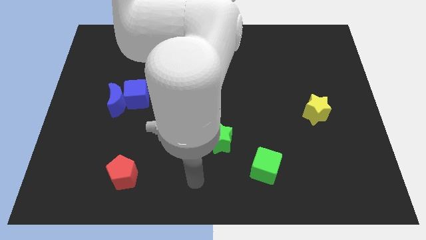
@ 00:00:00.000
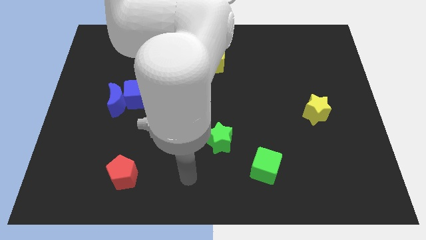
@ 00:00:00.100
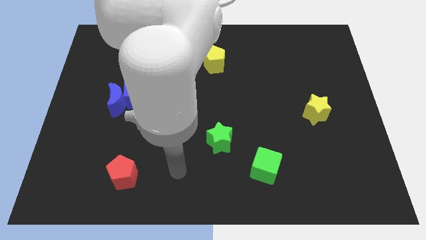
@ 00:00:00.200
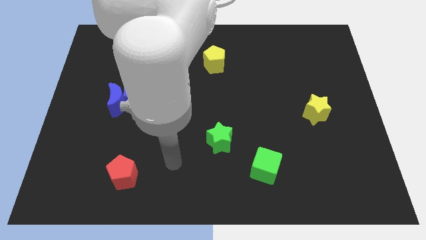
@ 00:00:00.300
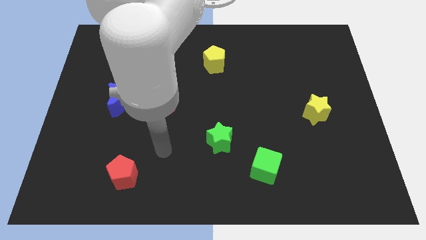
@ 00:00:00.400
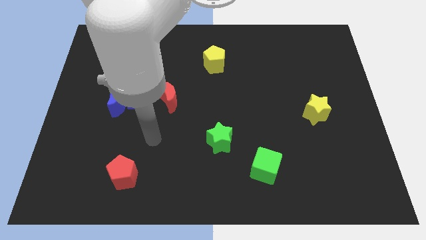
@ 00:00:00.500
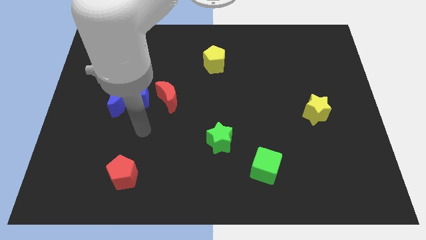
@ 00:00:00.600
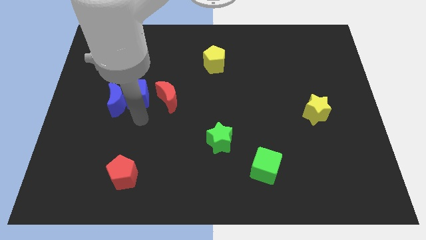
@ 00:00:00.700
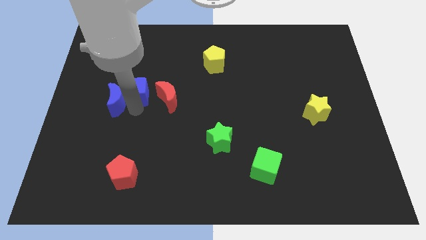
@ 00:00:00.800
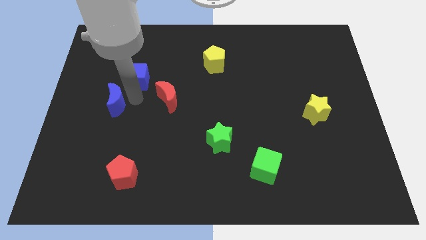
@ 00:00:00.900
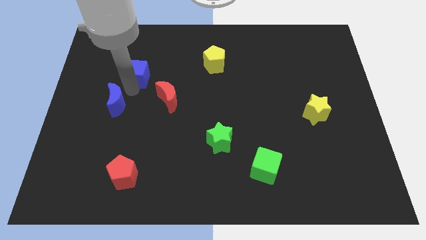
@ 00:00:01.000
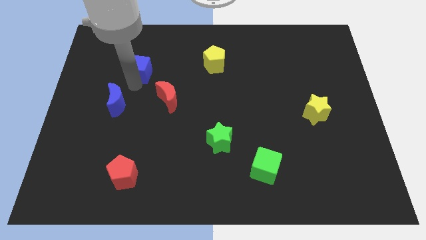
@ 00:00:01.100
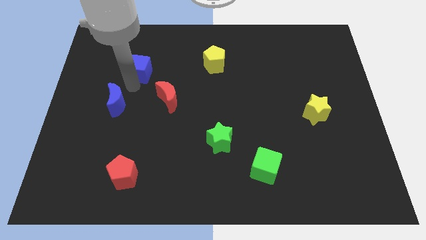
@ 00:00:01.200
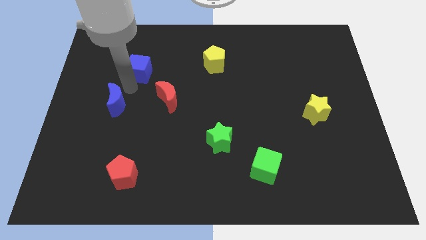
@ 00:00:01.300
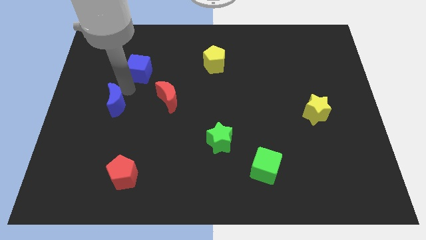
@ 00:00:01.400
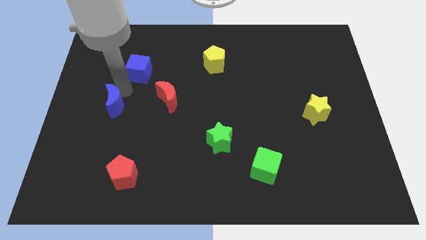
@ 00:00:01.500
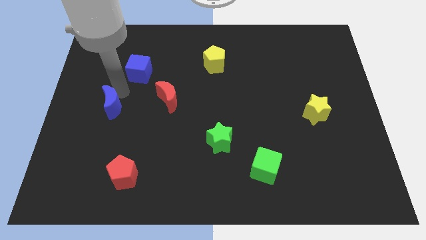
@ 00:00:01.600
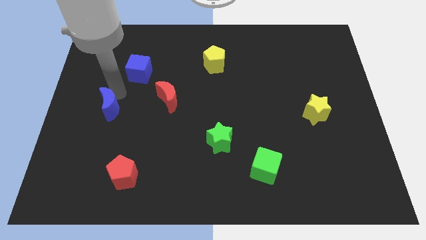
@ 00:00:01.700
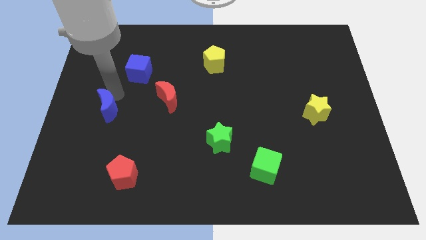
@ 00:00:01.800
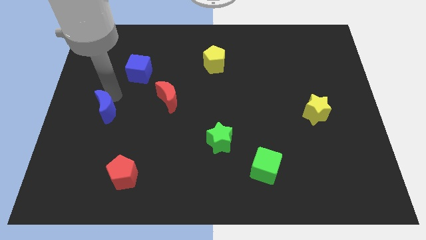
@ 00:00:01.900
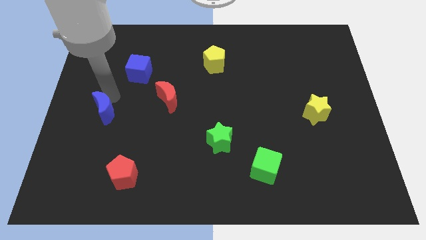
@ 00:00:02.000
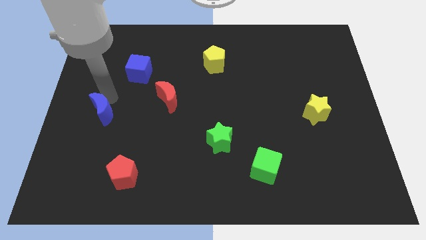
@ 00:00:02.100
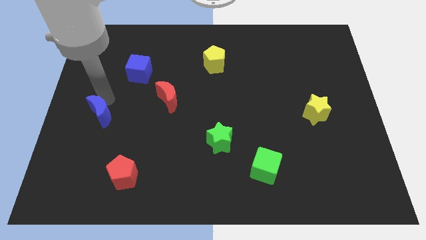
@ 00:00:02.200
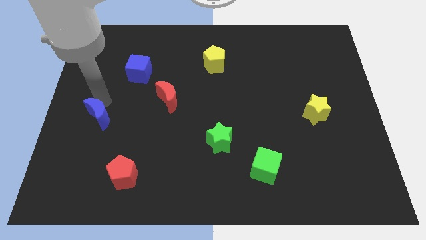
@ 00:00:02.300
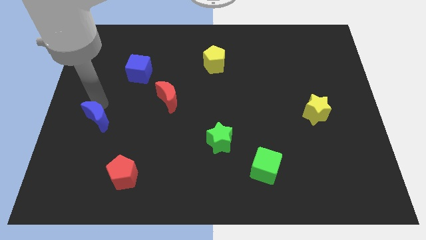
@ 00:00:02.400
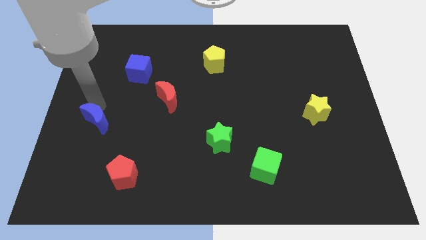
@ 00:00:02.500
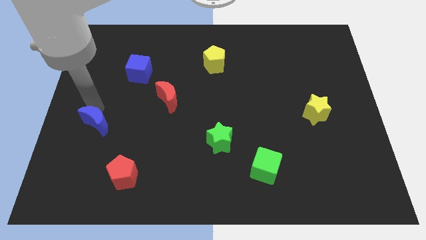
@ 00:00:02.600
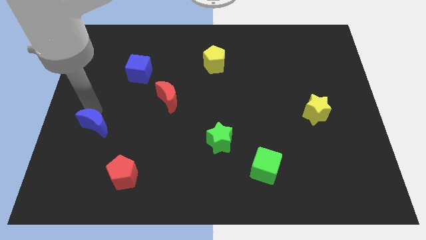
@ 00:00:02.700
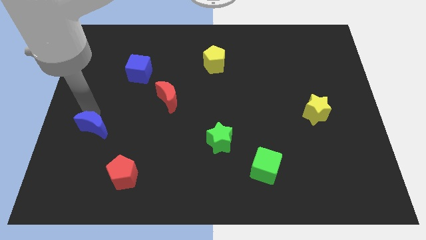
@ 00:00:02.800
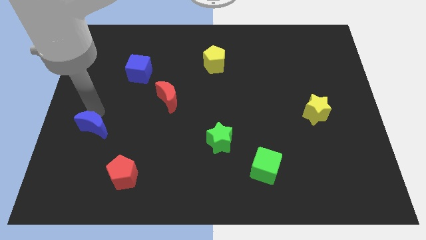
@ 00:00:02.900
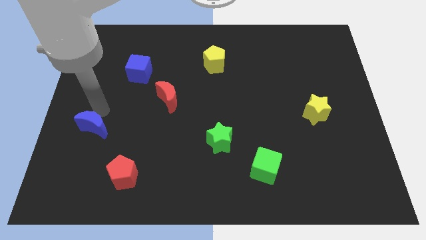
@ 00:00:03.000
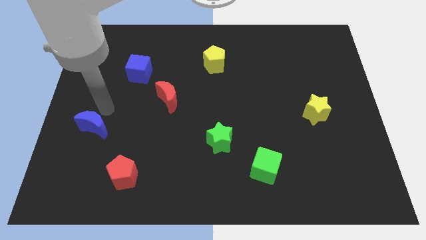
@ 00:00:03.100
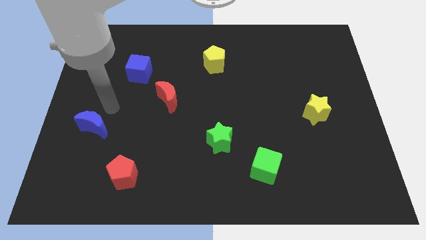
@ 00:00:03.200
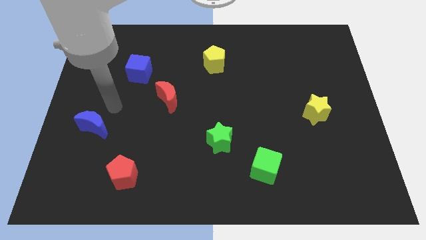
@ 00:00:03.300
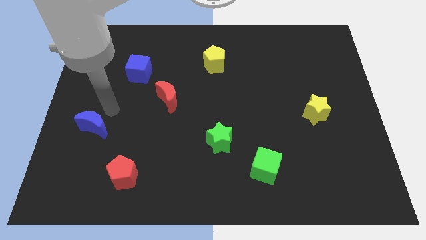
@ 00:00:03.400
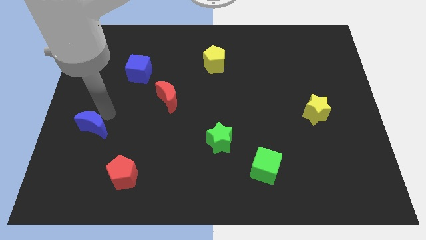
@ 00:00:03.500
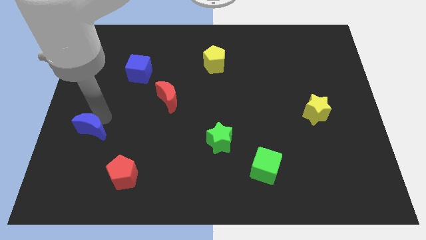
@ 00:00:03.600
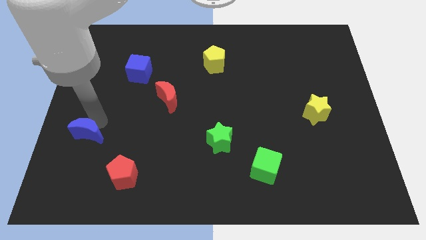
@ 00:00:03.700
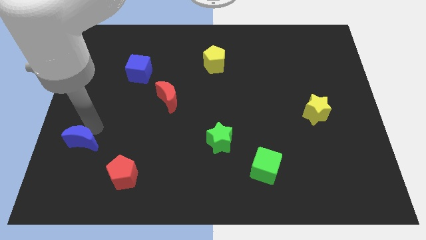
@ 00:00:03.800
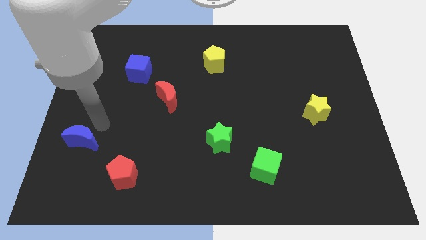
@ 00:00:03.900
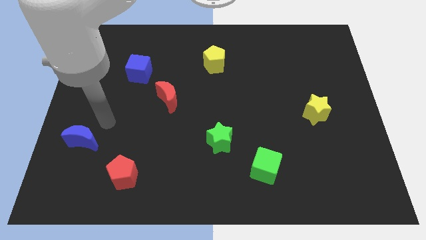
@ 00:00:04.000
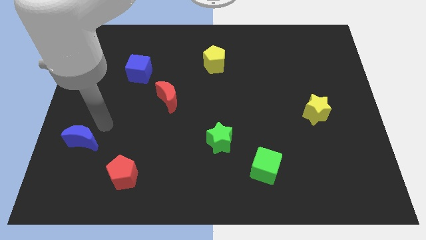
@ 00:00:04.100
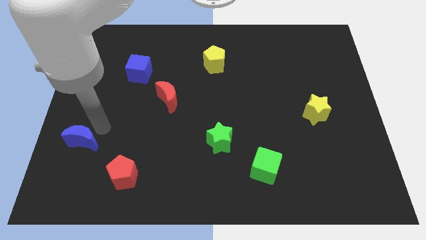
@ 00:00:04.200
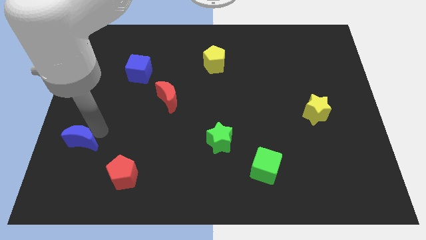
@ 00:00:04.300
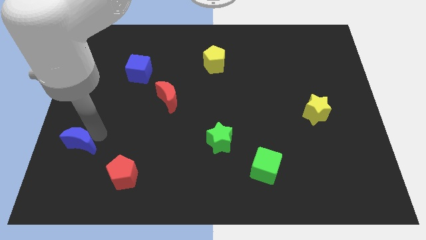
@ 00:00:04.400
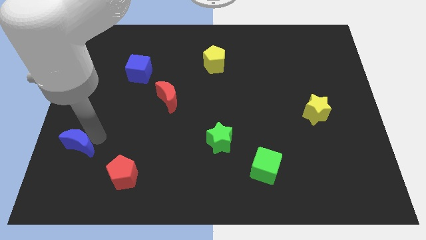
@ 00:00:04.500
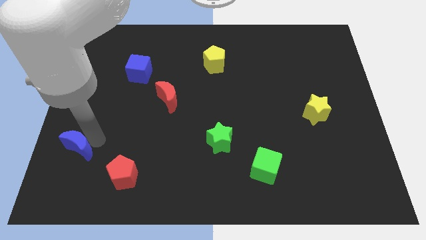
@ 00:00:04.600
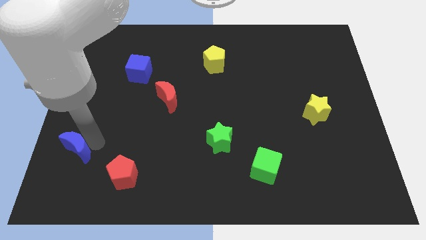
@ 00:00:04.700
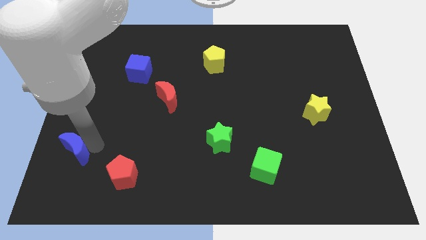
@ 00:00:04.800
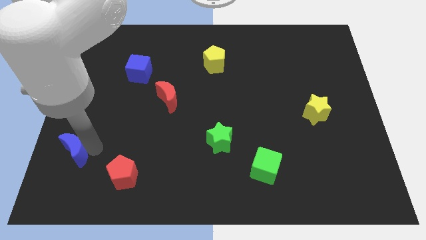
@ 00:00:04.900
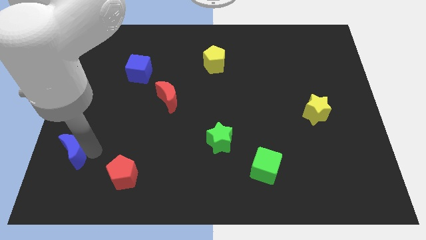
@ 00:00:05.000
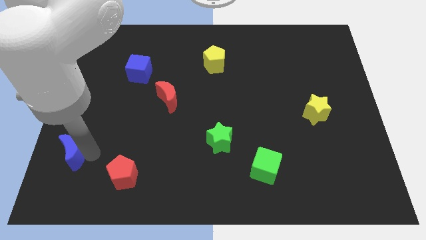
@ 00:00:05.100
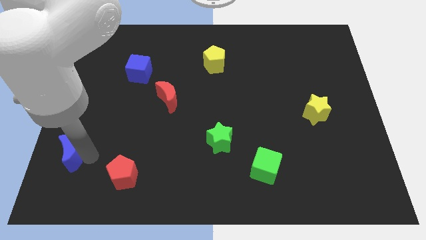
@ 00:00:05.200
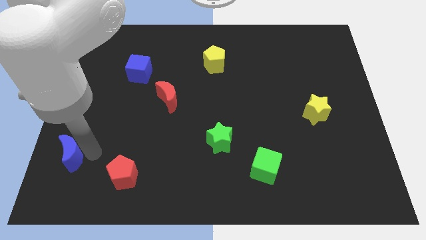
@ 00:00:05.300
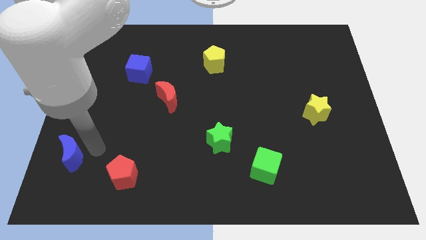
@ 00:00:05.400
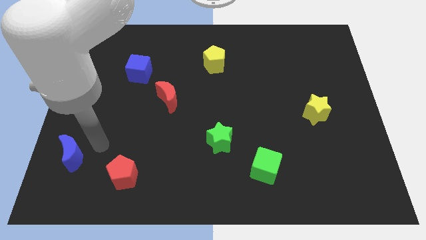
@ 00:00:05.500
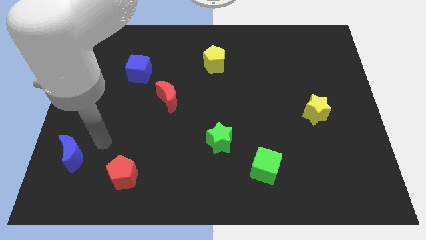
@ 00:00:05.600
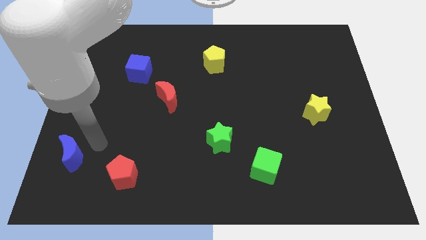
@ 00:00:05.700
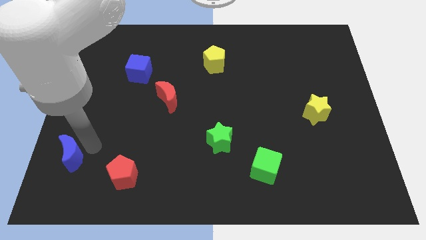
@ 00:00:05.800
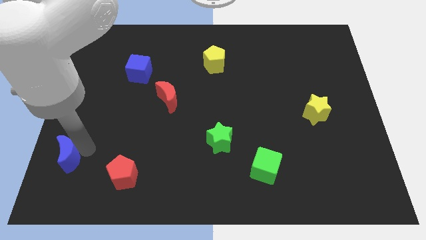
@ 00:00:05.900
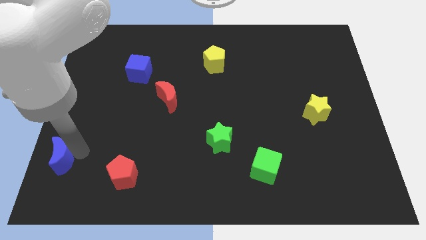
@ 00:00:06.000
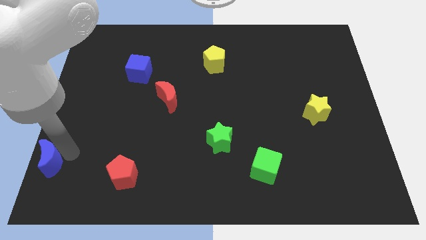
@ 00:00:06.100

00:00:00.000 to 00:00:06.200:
put the blue moon to the bottom left of the board

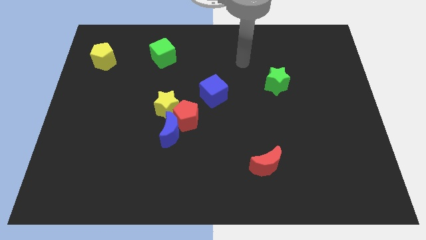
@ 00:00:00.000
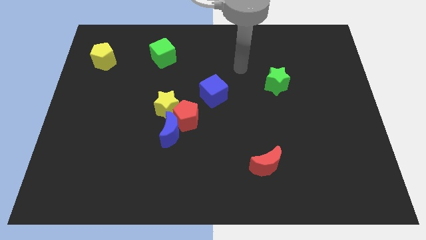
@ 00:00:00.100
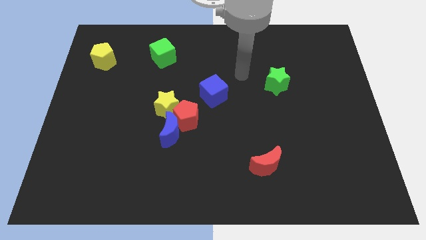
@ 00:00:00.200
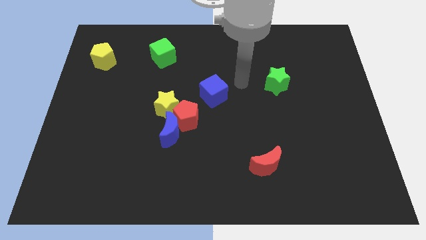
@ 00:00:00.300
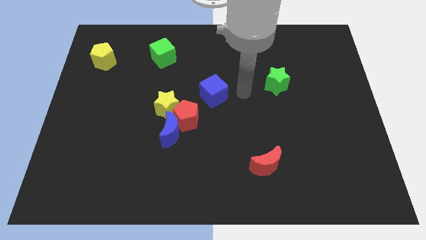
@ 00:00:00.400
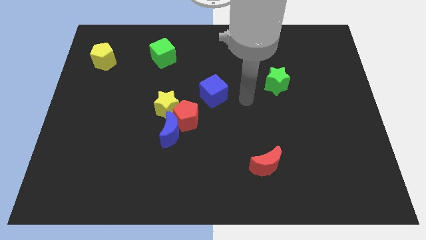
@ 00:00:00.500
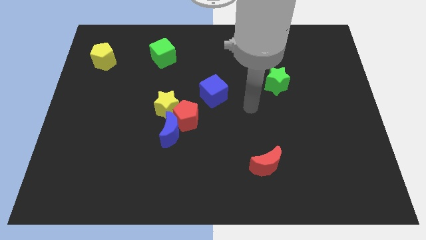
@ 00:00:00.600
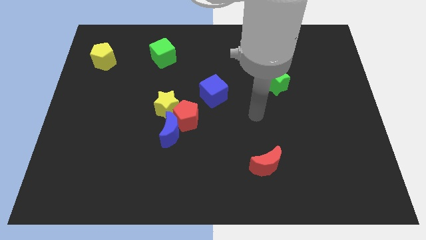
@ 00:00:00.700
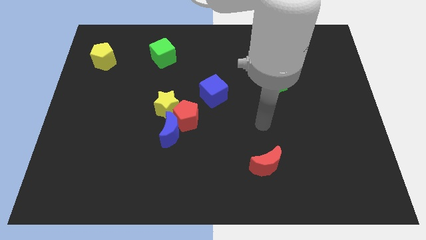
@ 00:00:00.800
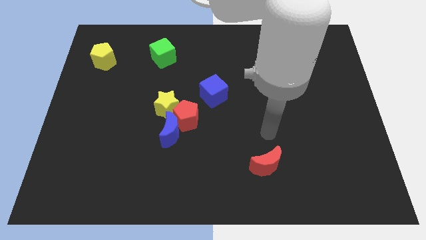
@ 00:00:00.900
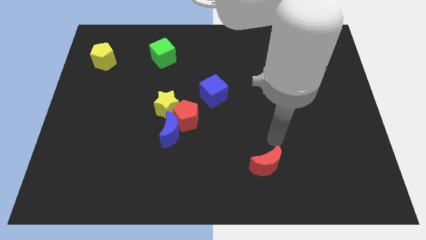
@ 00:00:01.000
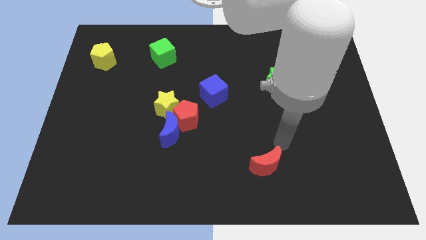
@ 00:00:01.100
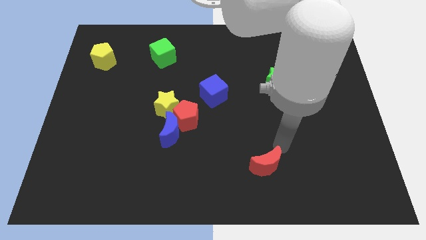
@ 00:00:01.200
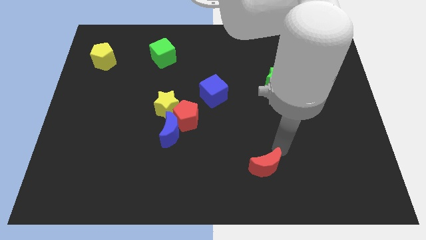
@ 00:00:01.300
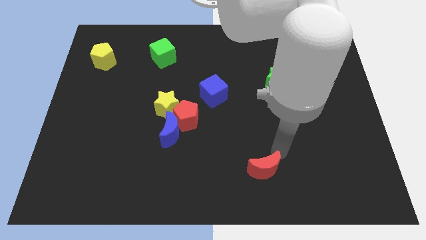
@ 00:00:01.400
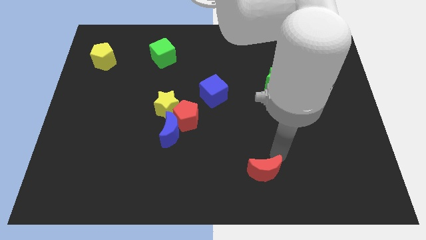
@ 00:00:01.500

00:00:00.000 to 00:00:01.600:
push the red moon to the bottom
